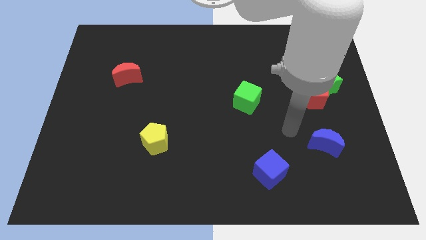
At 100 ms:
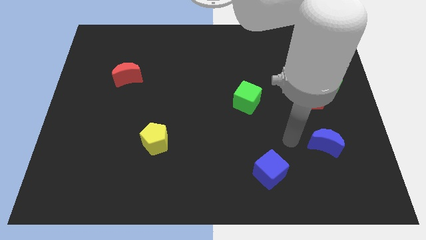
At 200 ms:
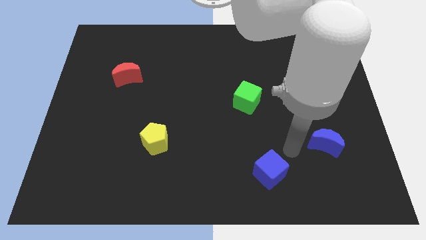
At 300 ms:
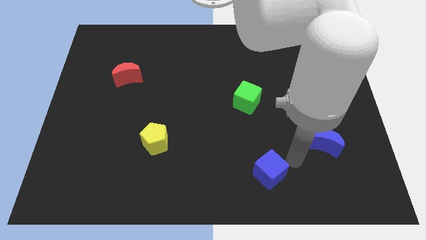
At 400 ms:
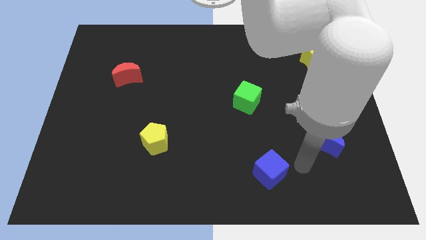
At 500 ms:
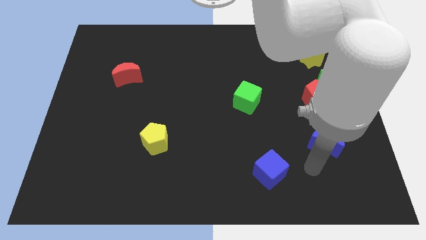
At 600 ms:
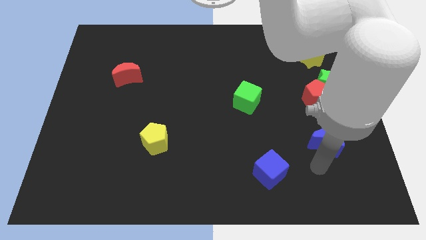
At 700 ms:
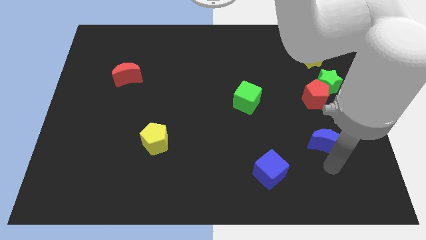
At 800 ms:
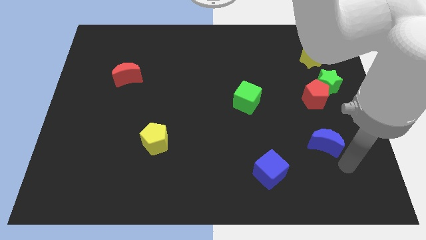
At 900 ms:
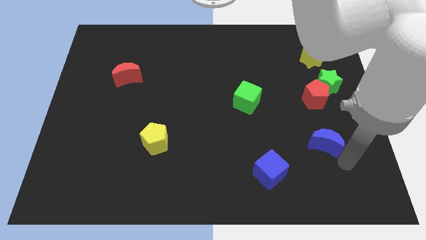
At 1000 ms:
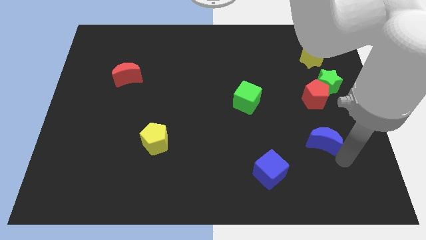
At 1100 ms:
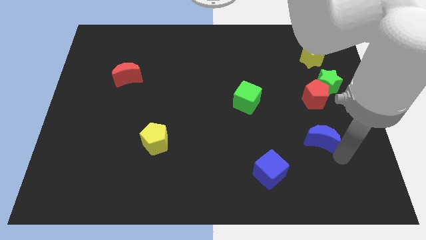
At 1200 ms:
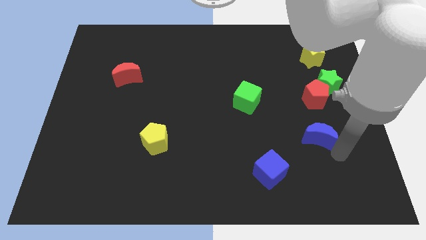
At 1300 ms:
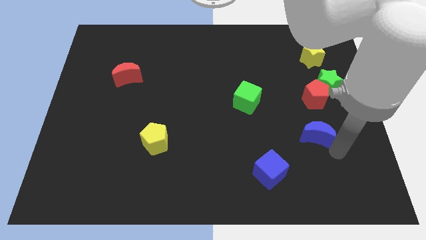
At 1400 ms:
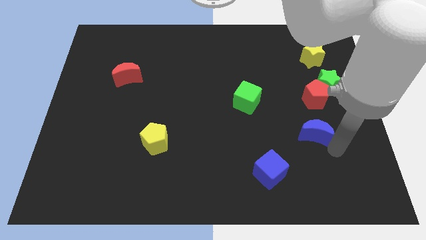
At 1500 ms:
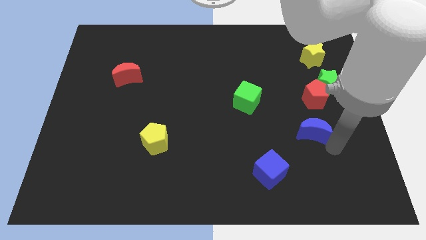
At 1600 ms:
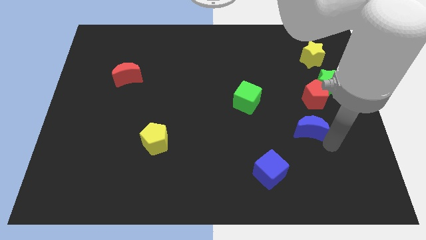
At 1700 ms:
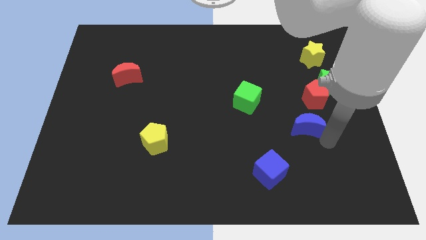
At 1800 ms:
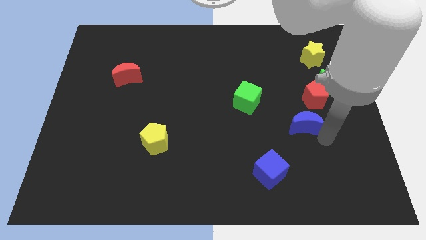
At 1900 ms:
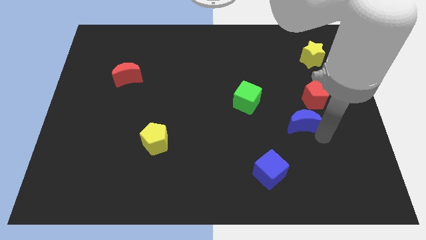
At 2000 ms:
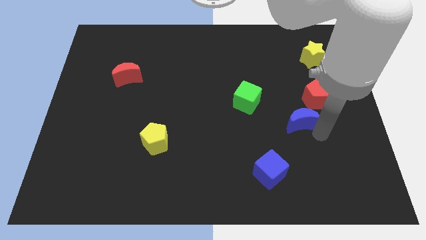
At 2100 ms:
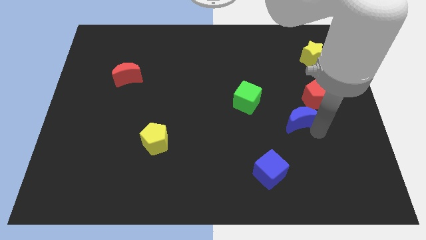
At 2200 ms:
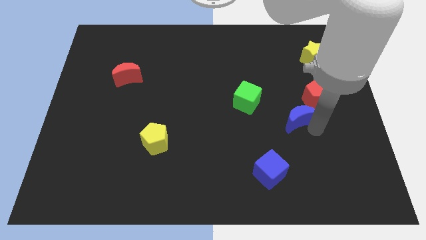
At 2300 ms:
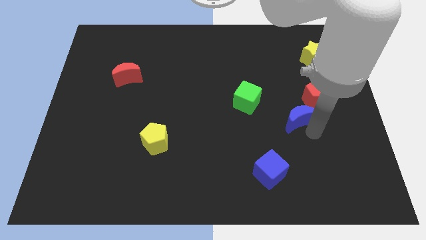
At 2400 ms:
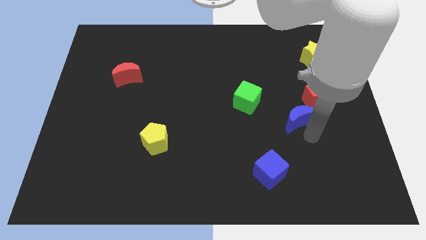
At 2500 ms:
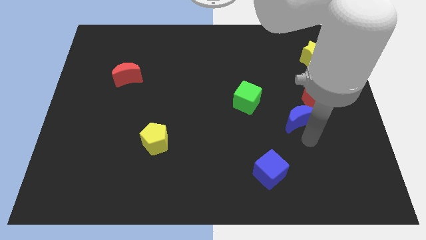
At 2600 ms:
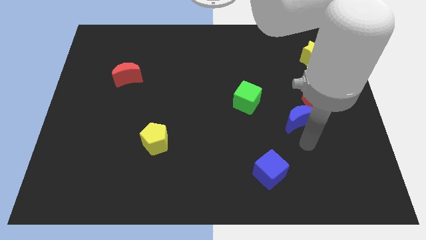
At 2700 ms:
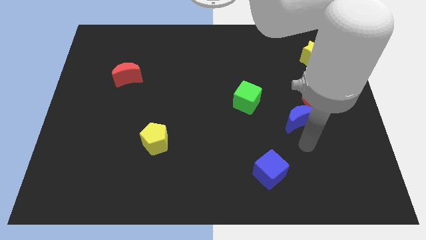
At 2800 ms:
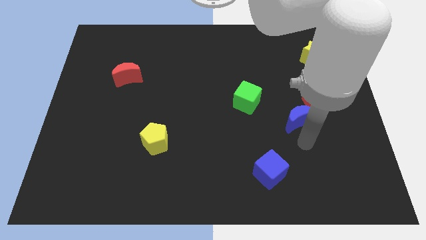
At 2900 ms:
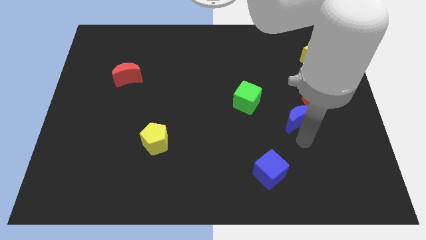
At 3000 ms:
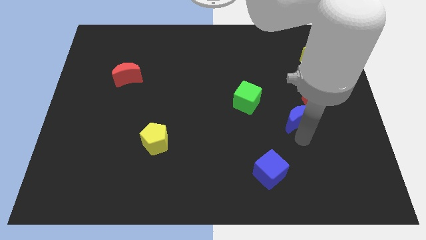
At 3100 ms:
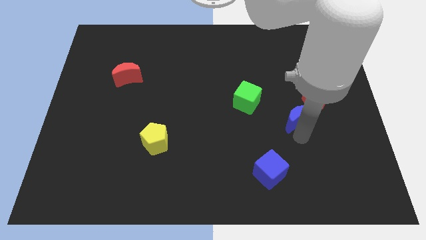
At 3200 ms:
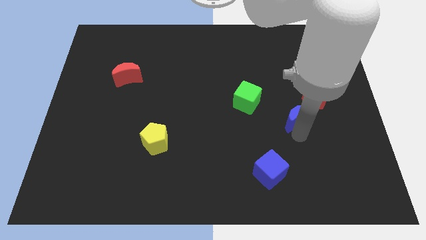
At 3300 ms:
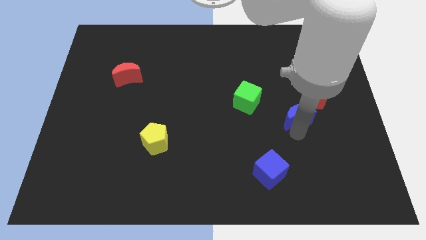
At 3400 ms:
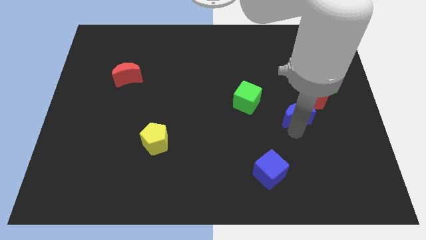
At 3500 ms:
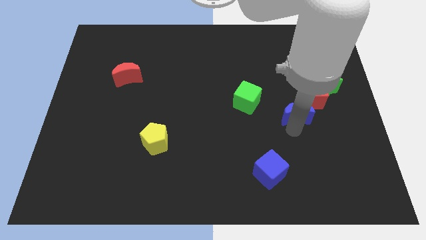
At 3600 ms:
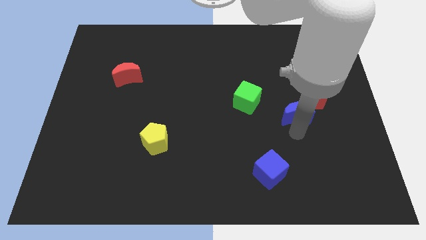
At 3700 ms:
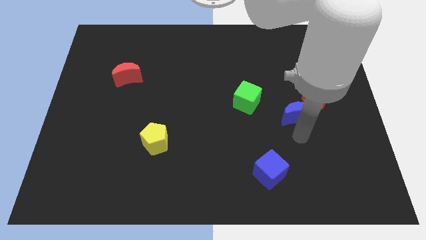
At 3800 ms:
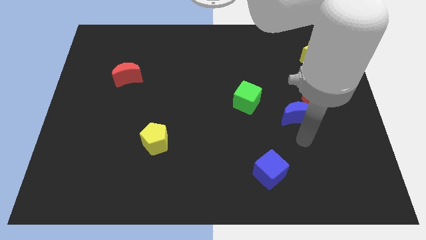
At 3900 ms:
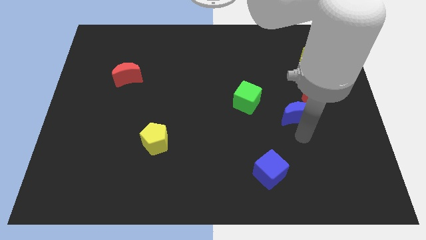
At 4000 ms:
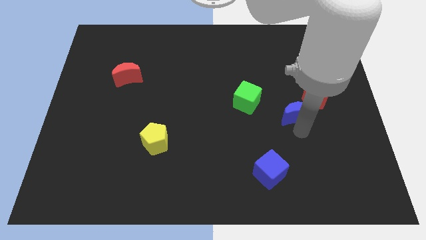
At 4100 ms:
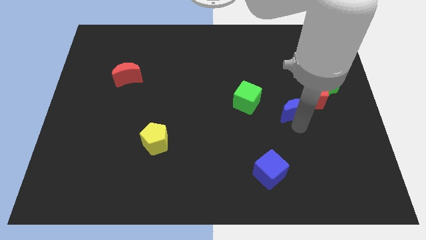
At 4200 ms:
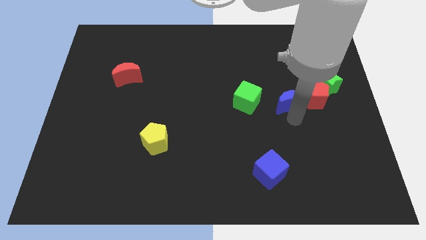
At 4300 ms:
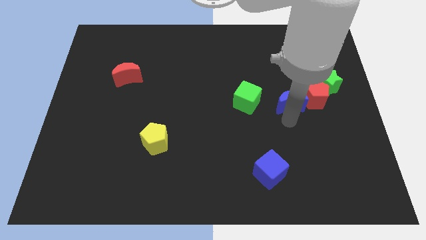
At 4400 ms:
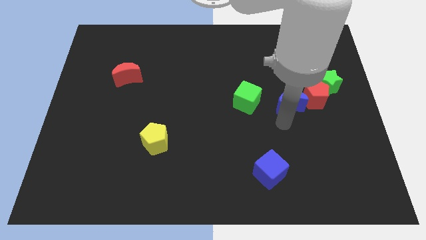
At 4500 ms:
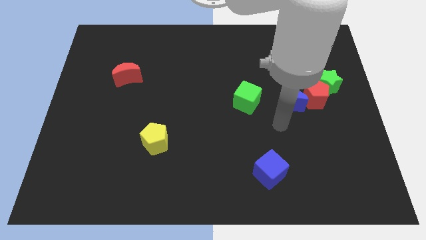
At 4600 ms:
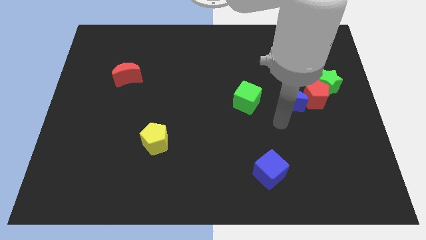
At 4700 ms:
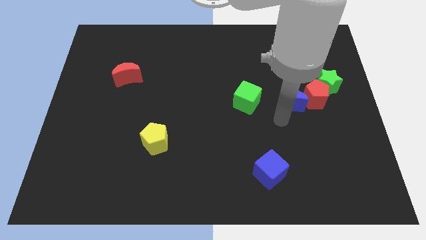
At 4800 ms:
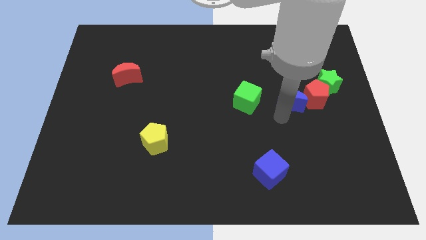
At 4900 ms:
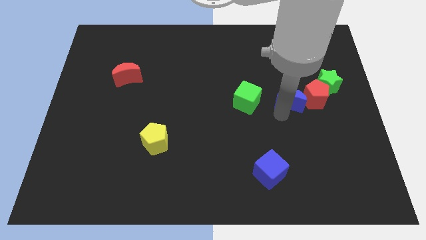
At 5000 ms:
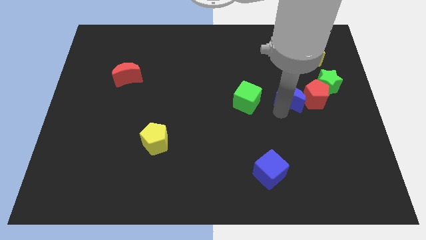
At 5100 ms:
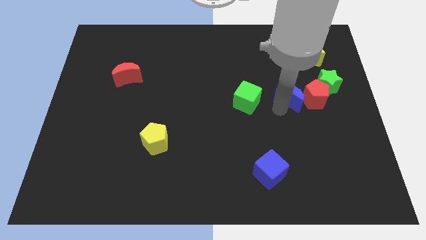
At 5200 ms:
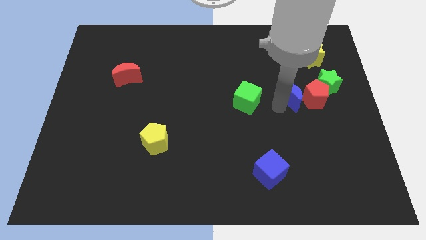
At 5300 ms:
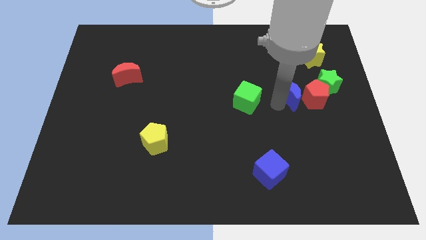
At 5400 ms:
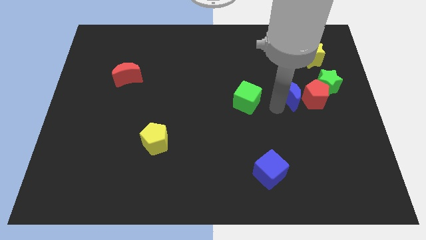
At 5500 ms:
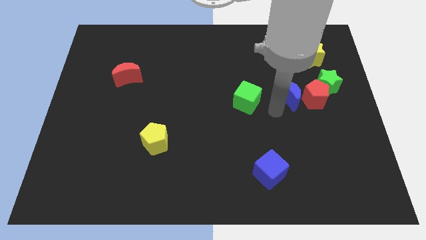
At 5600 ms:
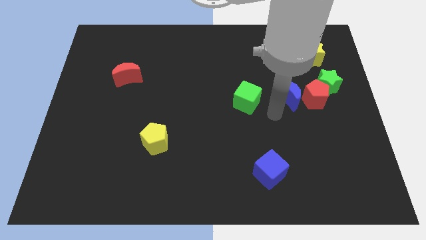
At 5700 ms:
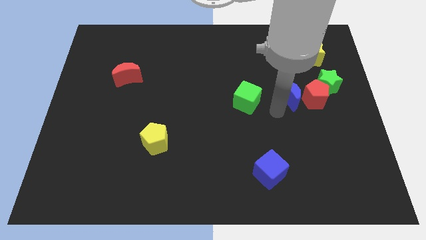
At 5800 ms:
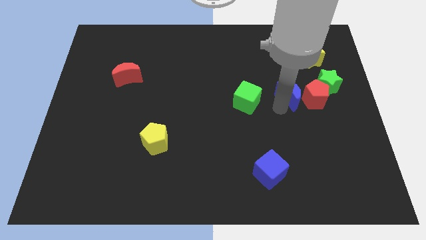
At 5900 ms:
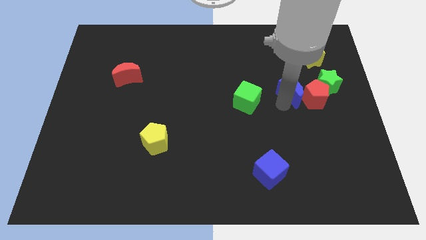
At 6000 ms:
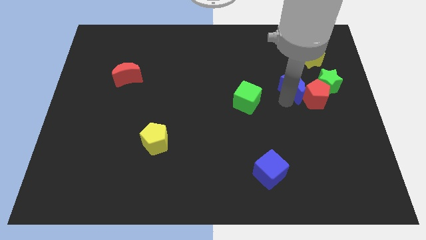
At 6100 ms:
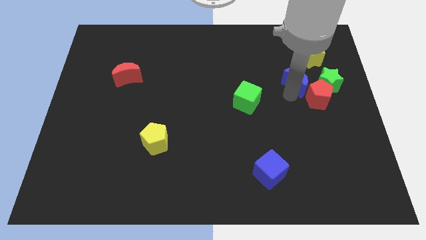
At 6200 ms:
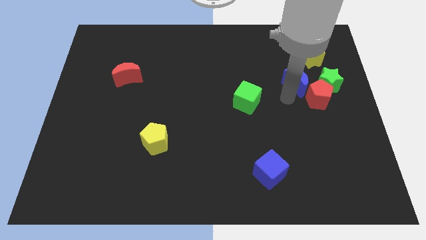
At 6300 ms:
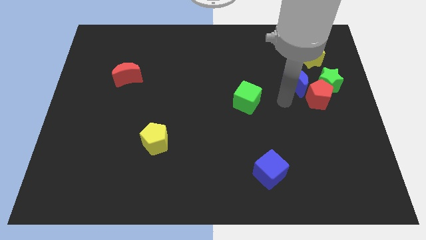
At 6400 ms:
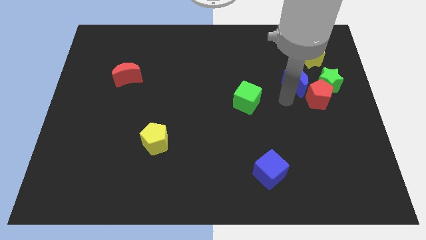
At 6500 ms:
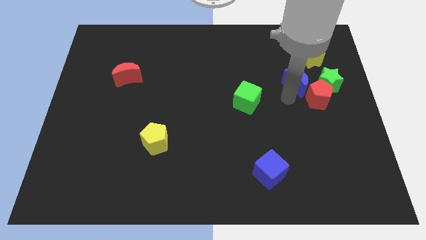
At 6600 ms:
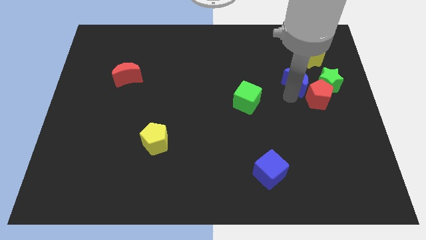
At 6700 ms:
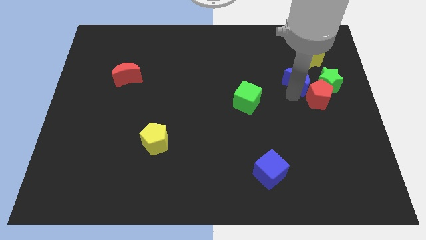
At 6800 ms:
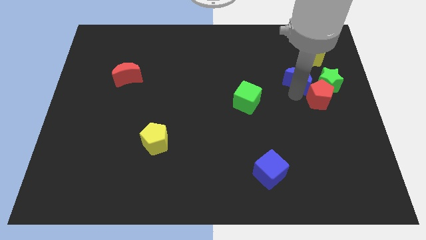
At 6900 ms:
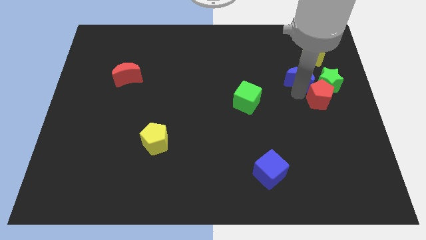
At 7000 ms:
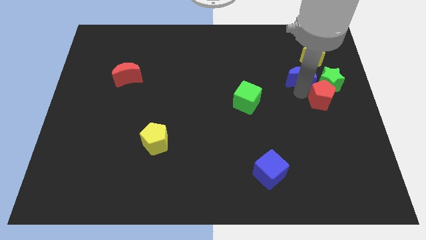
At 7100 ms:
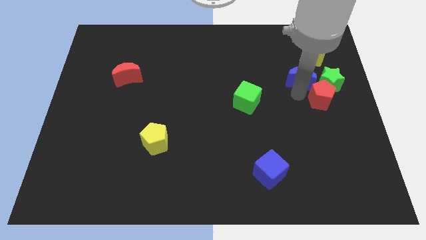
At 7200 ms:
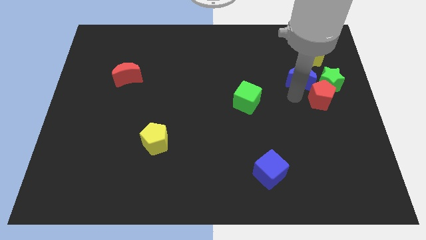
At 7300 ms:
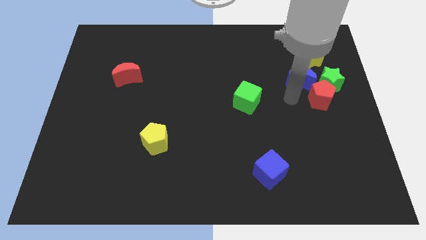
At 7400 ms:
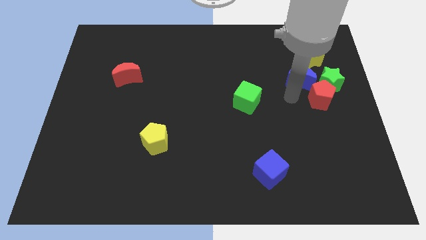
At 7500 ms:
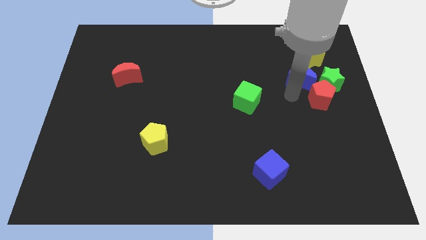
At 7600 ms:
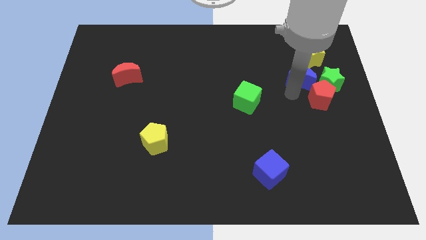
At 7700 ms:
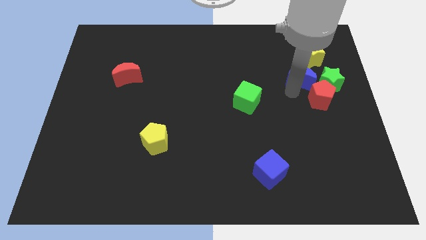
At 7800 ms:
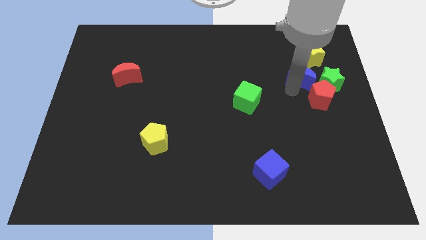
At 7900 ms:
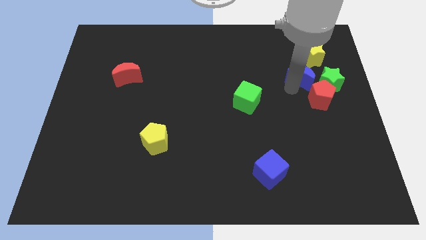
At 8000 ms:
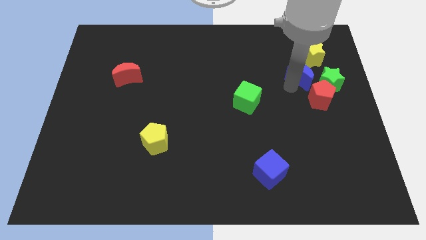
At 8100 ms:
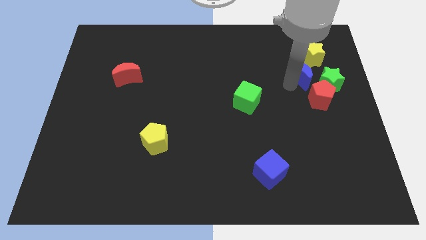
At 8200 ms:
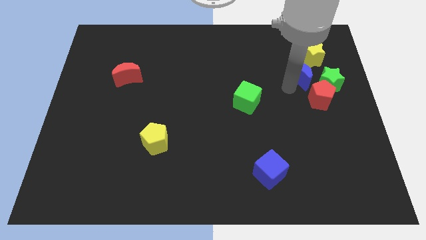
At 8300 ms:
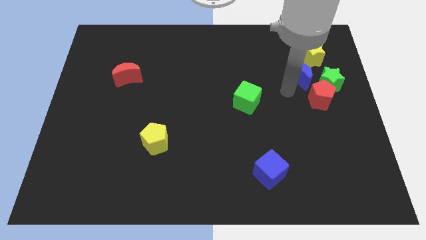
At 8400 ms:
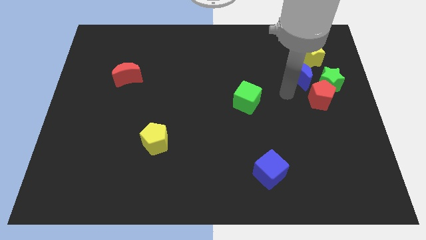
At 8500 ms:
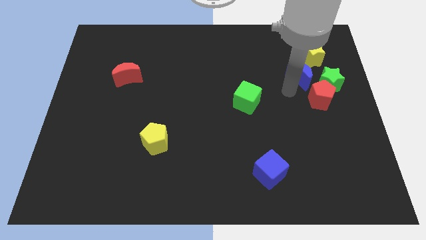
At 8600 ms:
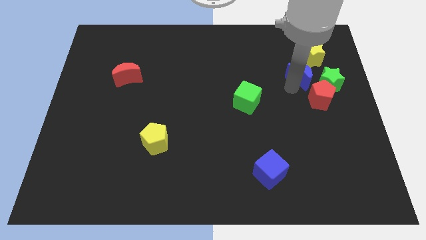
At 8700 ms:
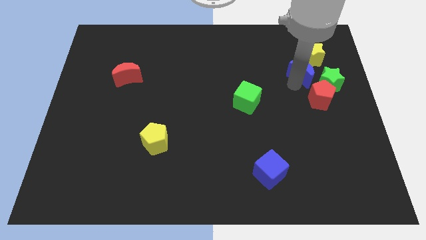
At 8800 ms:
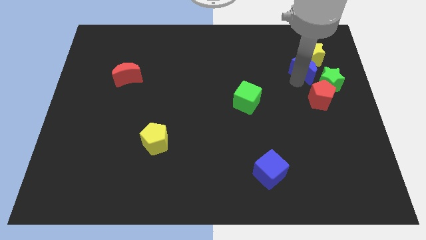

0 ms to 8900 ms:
put the blue moon to the yellow star
